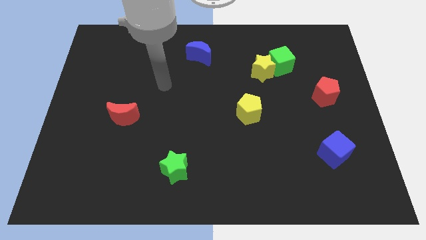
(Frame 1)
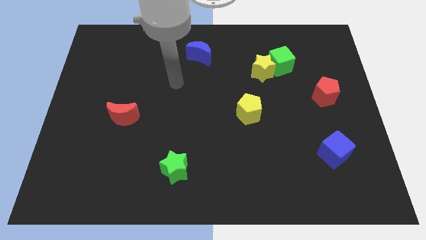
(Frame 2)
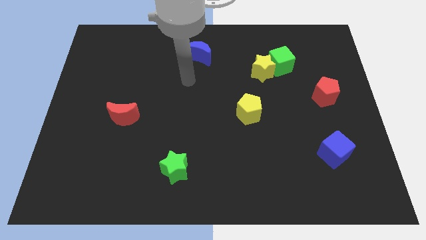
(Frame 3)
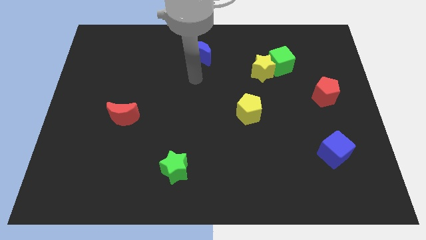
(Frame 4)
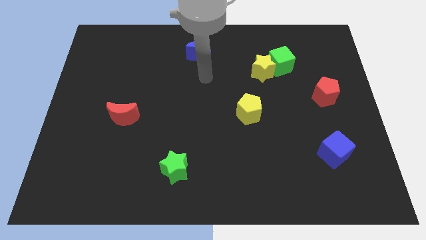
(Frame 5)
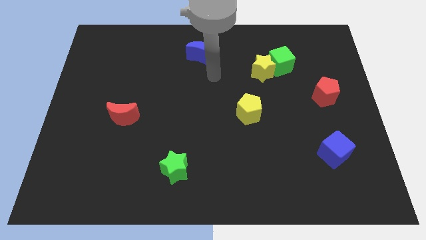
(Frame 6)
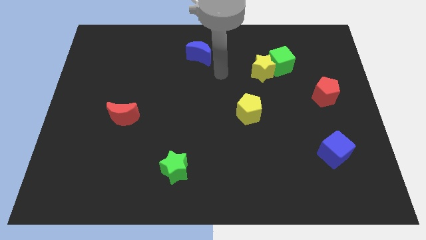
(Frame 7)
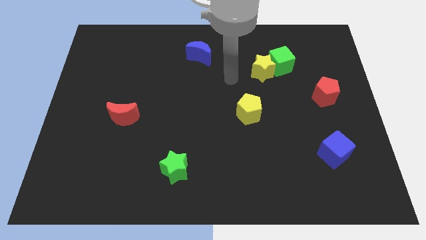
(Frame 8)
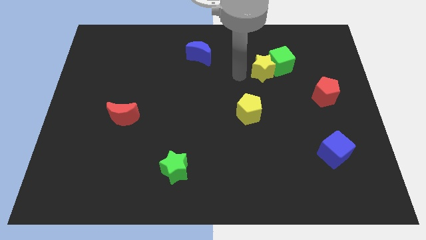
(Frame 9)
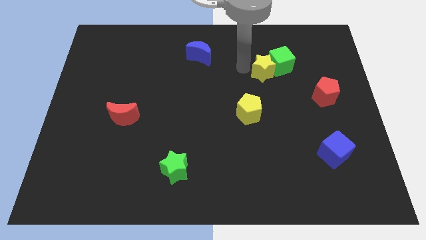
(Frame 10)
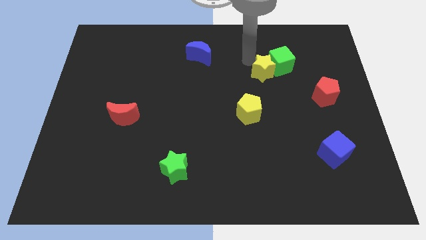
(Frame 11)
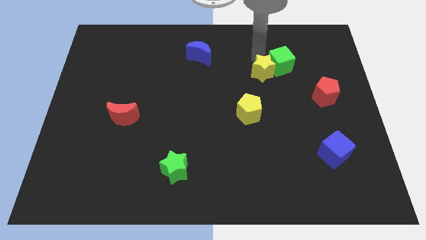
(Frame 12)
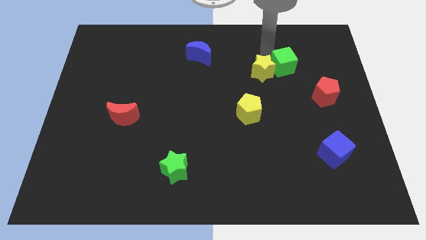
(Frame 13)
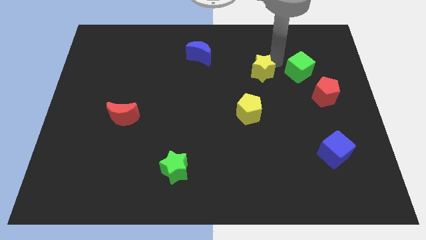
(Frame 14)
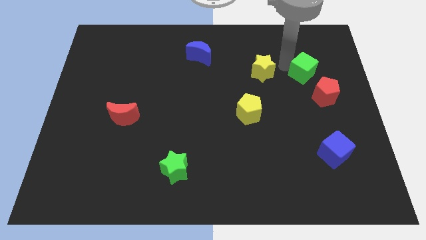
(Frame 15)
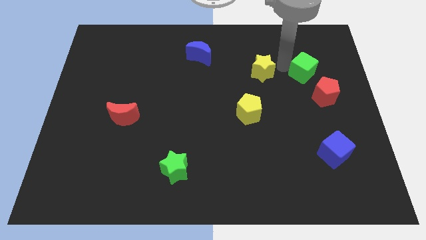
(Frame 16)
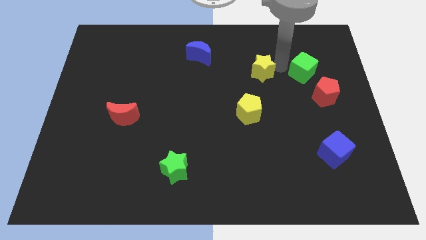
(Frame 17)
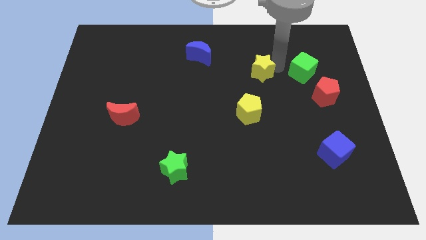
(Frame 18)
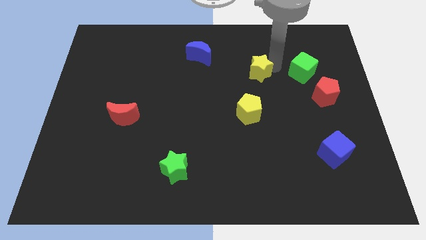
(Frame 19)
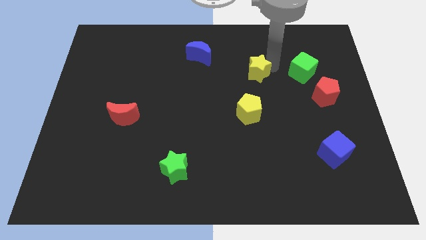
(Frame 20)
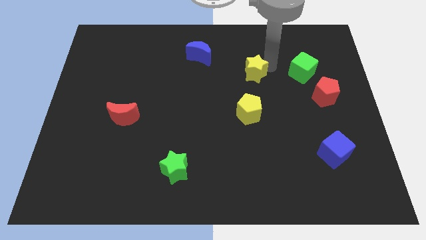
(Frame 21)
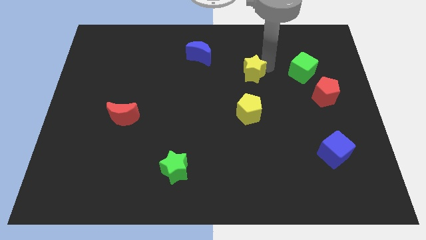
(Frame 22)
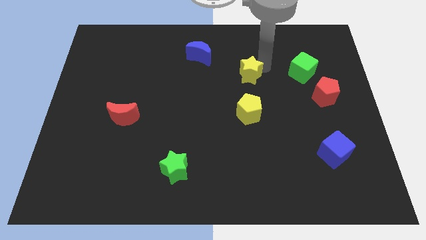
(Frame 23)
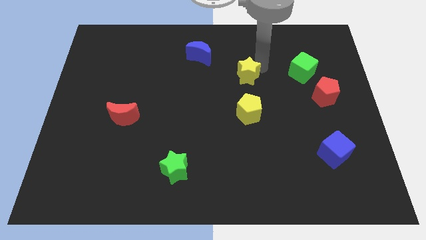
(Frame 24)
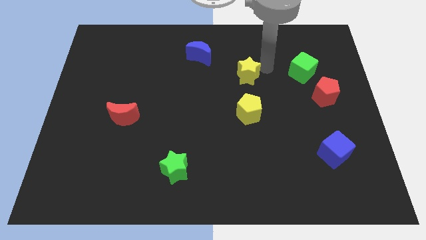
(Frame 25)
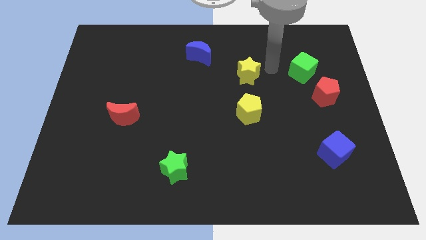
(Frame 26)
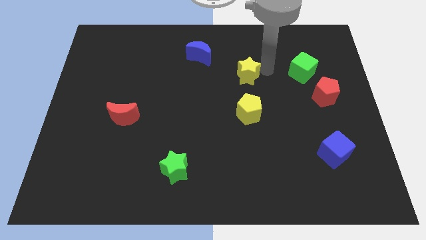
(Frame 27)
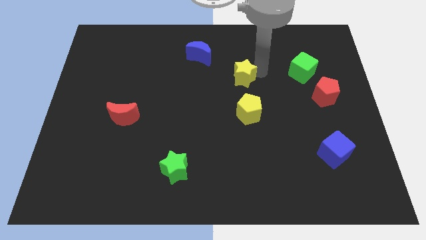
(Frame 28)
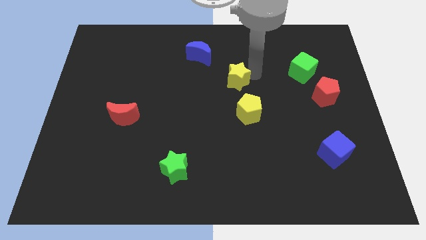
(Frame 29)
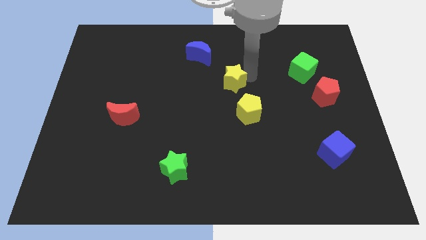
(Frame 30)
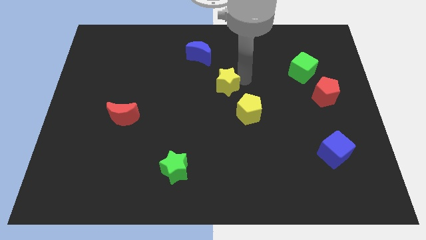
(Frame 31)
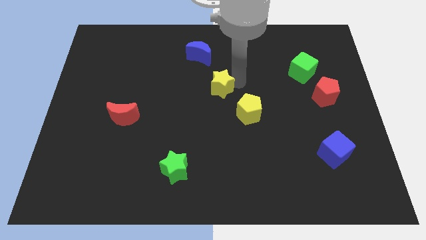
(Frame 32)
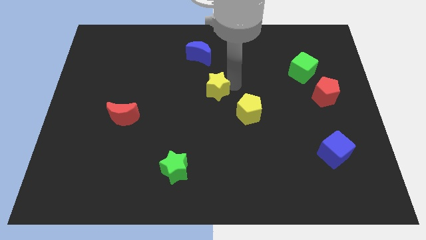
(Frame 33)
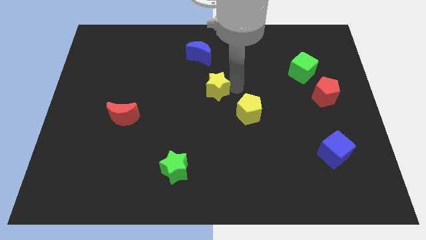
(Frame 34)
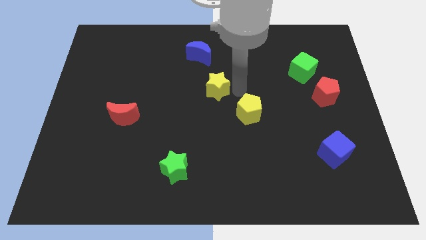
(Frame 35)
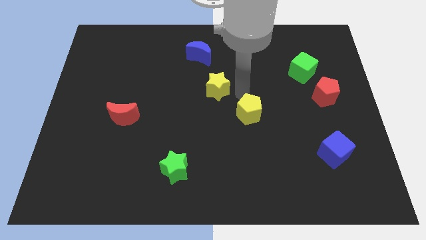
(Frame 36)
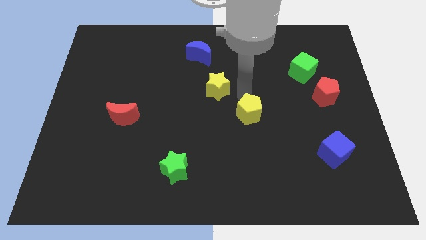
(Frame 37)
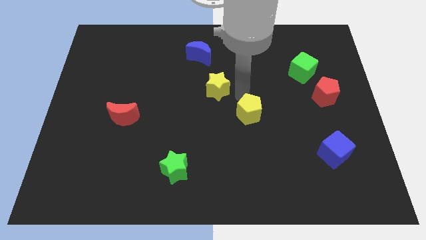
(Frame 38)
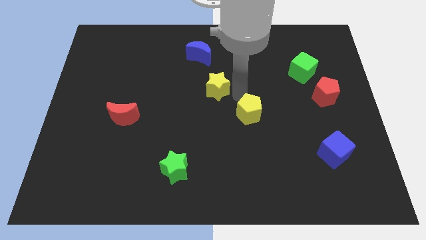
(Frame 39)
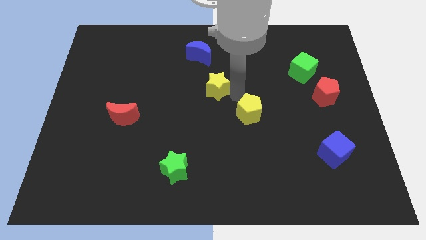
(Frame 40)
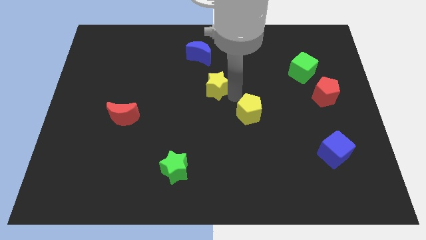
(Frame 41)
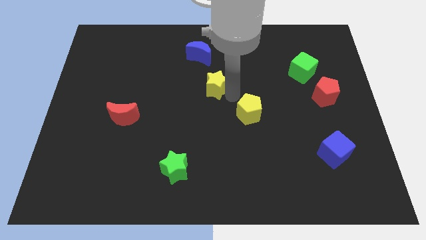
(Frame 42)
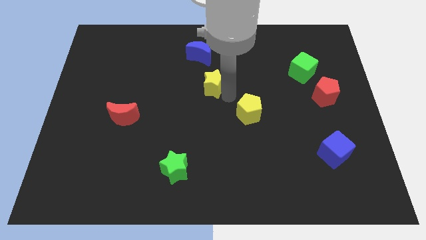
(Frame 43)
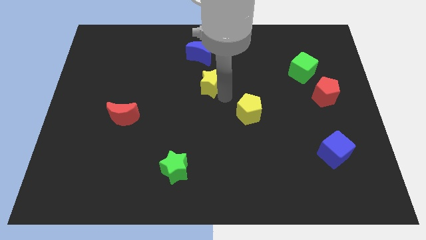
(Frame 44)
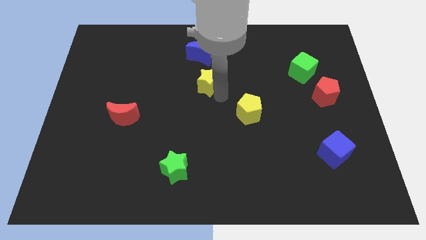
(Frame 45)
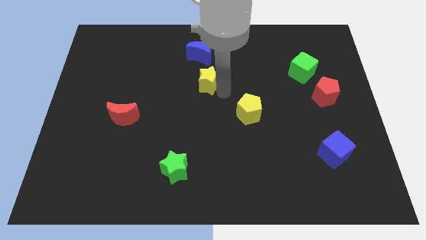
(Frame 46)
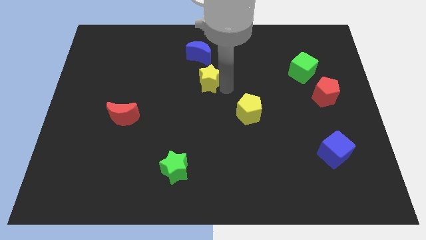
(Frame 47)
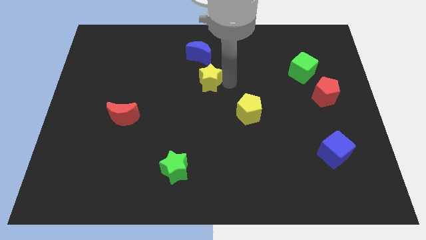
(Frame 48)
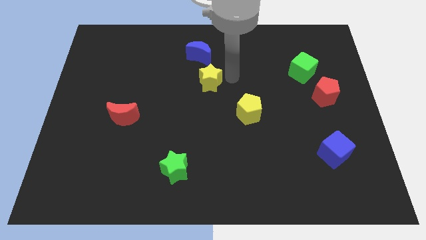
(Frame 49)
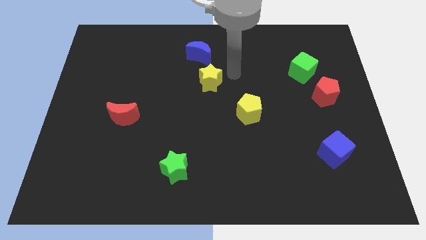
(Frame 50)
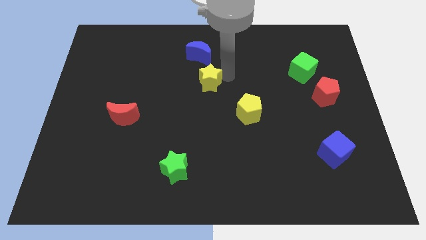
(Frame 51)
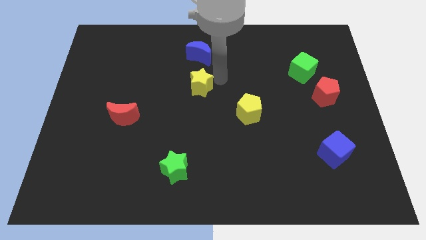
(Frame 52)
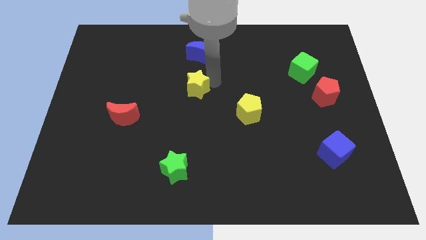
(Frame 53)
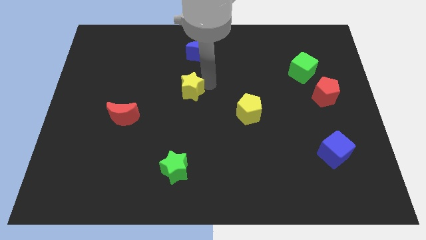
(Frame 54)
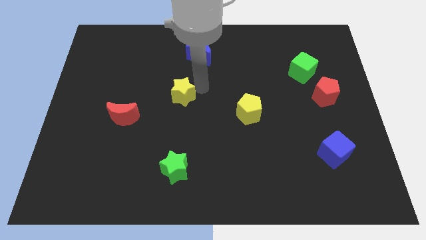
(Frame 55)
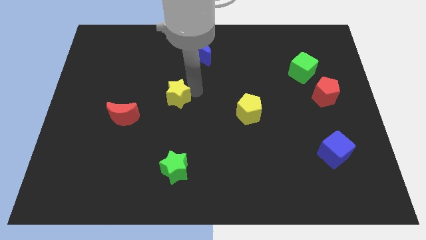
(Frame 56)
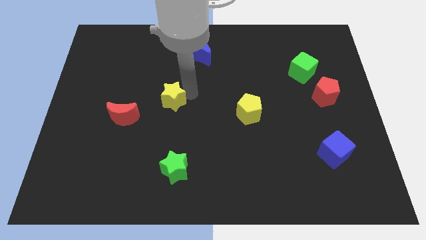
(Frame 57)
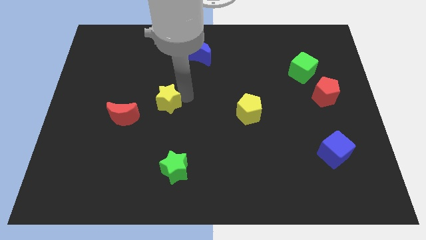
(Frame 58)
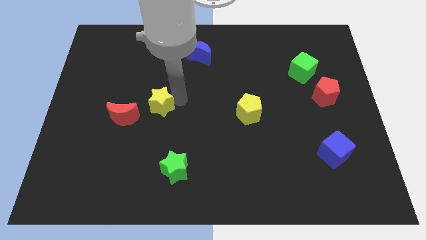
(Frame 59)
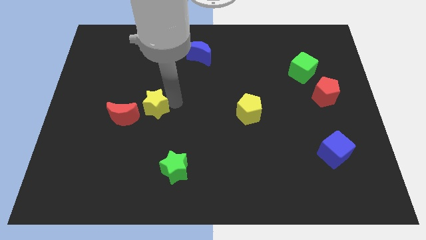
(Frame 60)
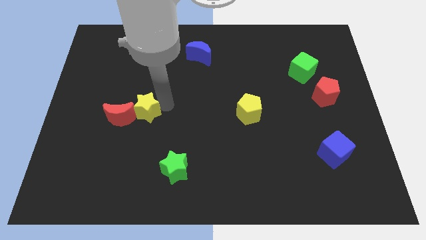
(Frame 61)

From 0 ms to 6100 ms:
push the yellow star towards the red moon

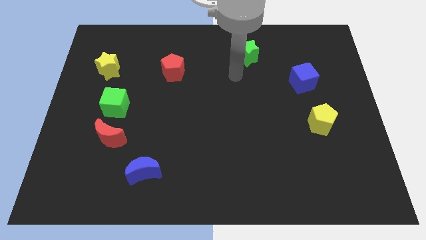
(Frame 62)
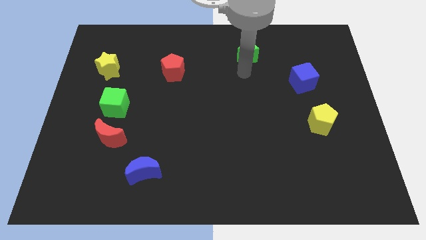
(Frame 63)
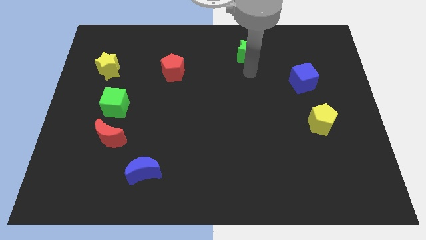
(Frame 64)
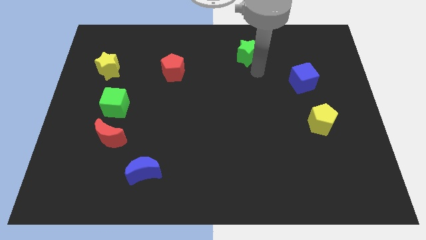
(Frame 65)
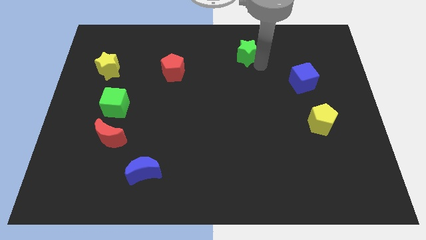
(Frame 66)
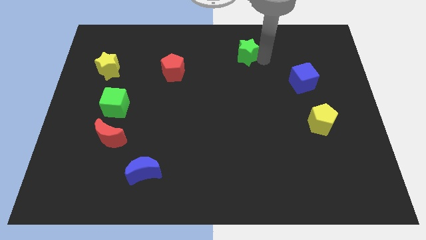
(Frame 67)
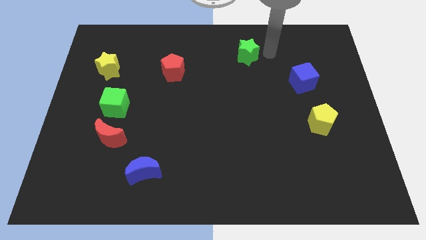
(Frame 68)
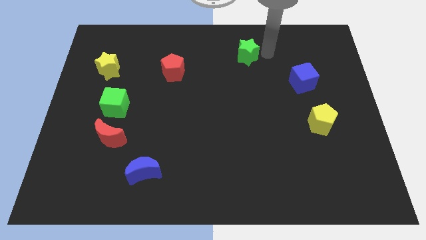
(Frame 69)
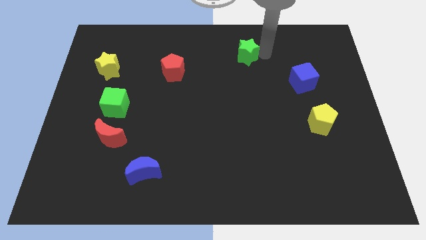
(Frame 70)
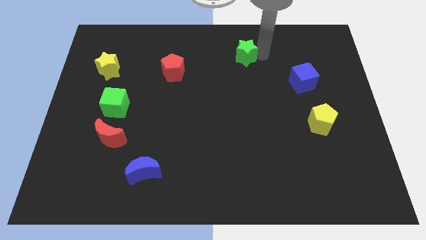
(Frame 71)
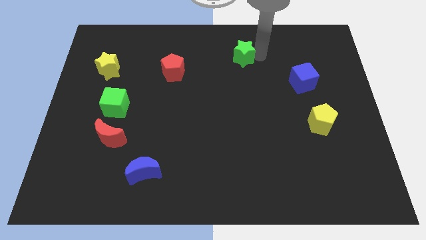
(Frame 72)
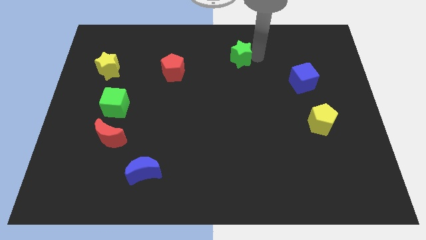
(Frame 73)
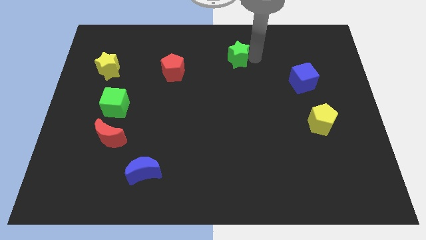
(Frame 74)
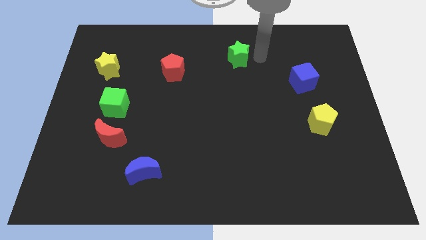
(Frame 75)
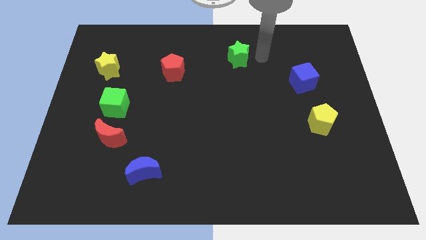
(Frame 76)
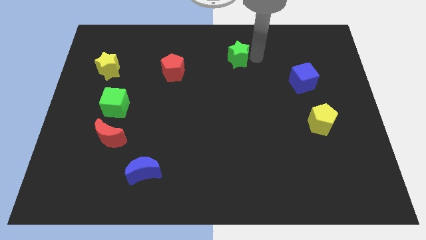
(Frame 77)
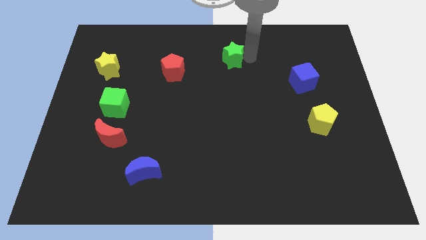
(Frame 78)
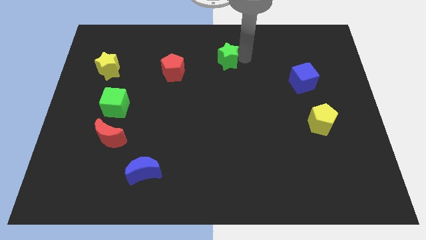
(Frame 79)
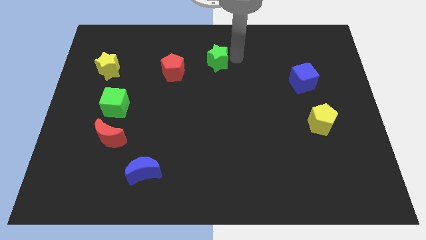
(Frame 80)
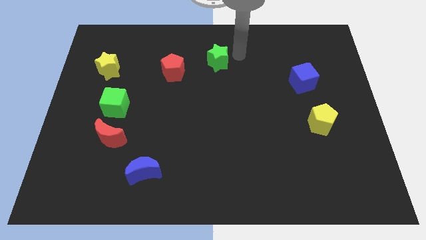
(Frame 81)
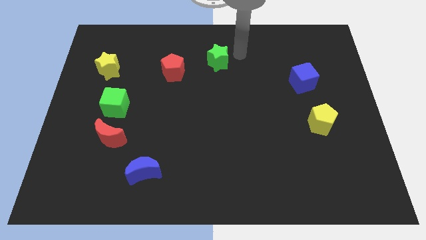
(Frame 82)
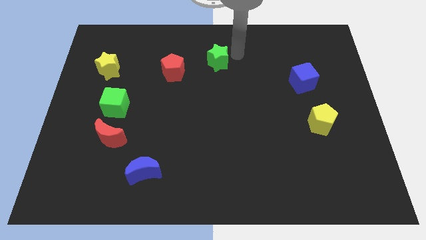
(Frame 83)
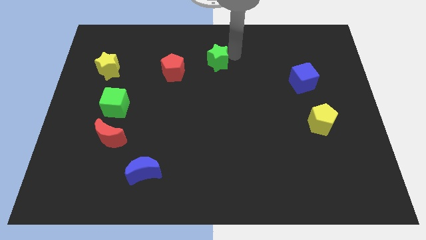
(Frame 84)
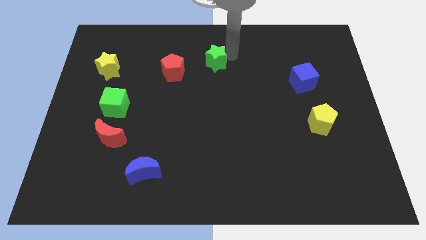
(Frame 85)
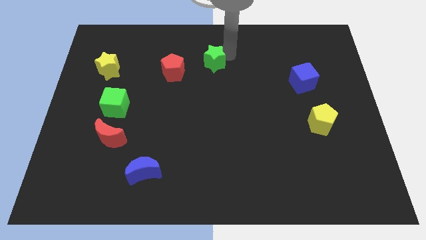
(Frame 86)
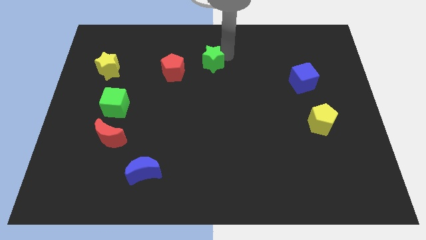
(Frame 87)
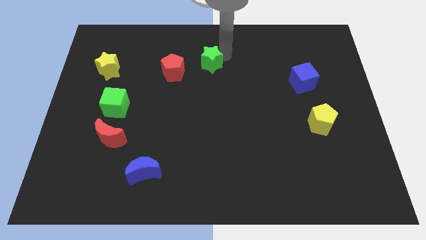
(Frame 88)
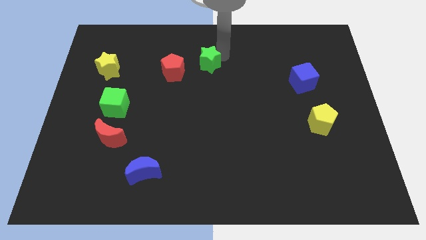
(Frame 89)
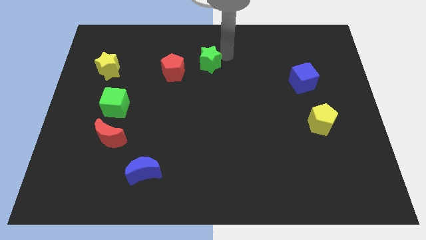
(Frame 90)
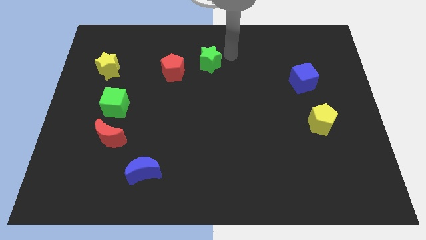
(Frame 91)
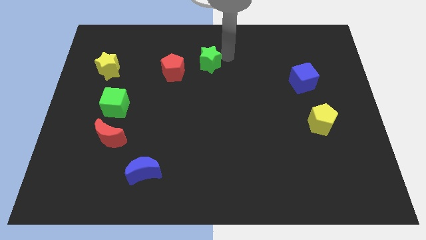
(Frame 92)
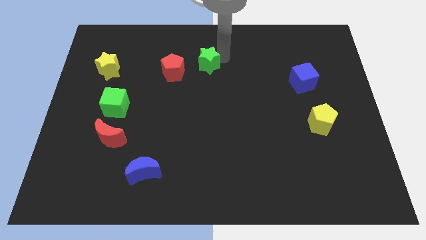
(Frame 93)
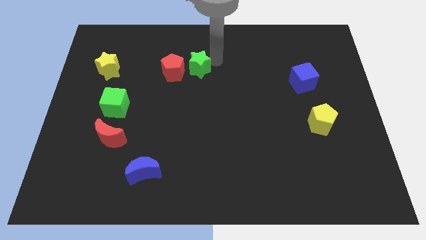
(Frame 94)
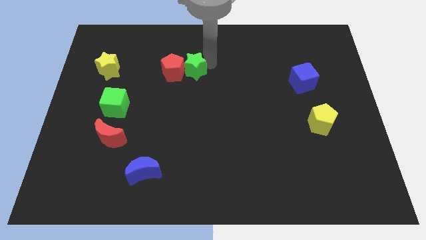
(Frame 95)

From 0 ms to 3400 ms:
move the green star towards the red pentagon
